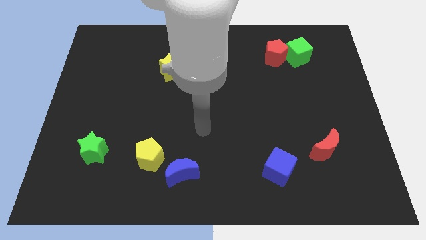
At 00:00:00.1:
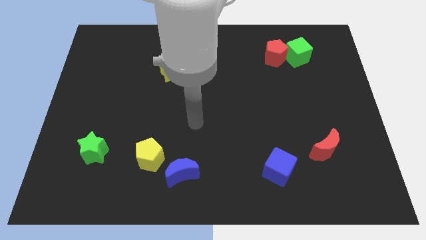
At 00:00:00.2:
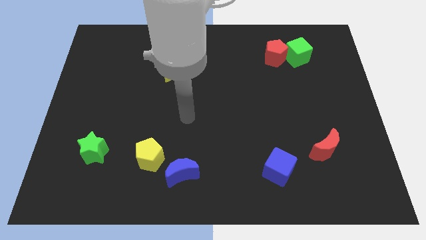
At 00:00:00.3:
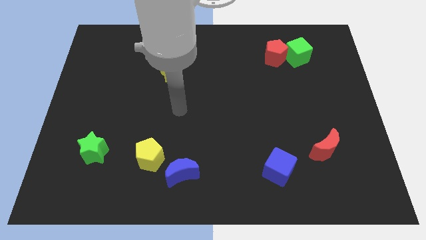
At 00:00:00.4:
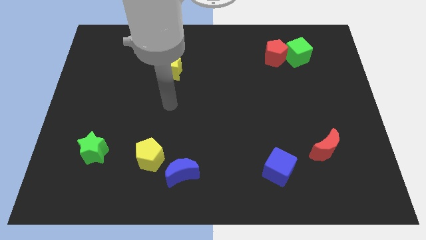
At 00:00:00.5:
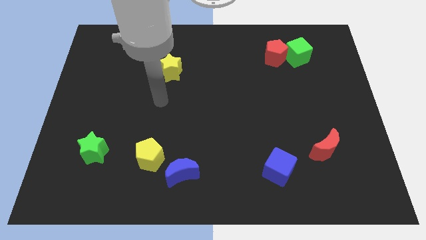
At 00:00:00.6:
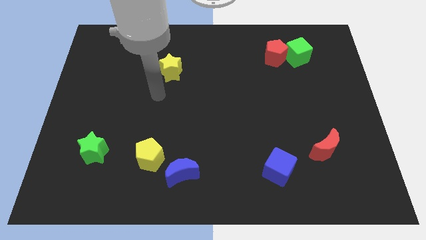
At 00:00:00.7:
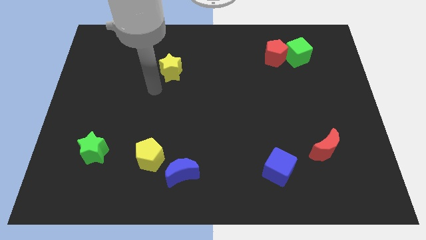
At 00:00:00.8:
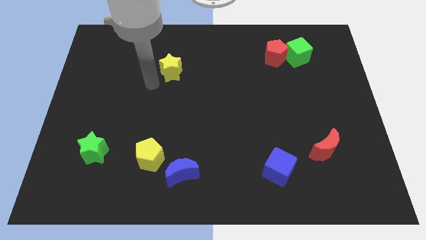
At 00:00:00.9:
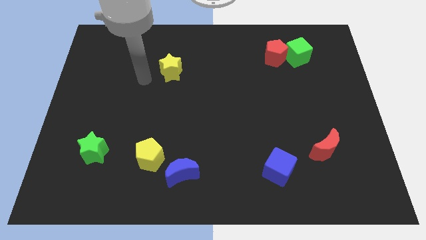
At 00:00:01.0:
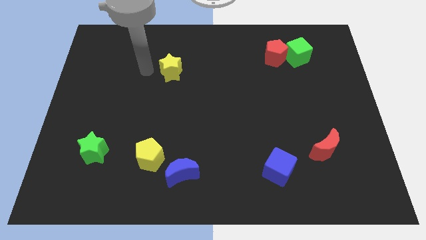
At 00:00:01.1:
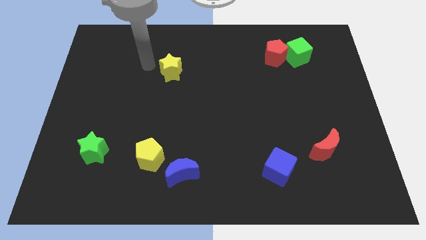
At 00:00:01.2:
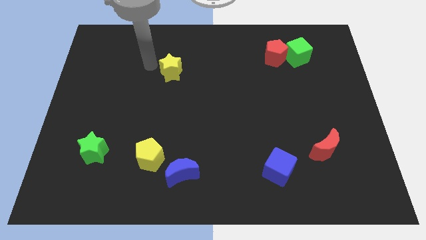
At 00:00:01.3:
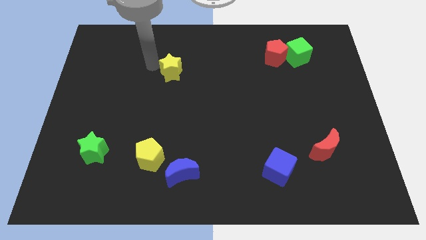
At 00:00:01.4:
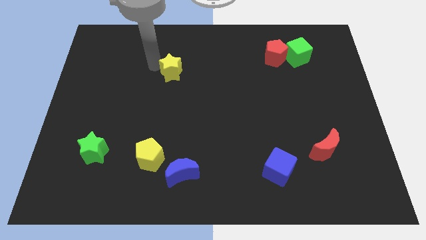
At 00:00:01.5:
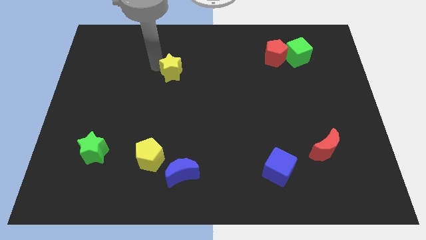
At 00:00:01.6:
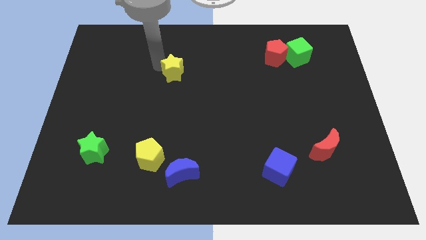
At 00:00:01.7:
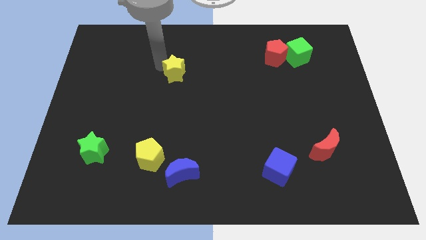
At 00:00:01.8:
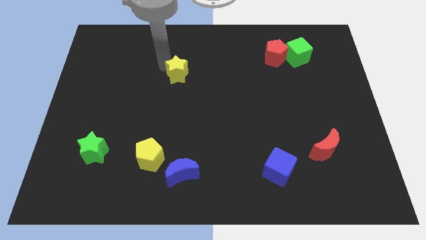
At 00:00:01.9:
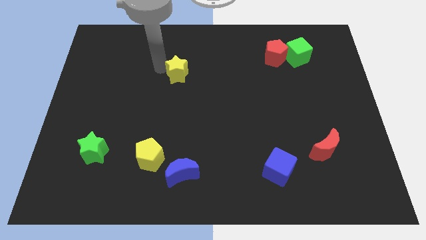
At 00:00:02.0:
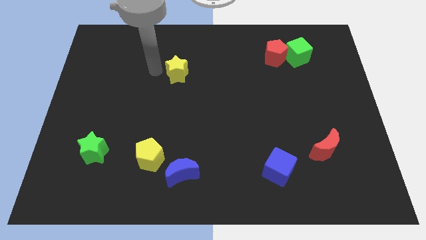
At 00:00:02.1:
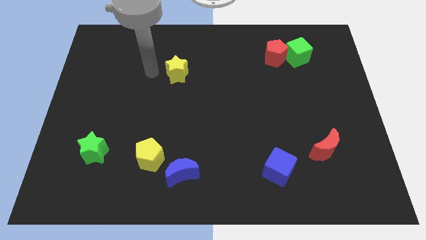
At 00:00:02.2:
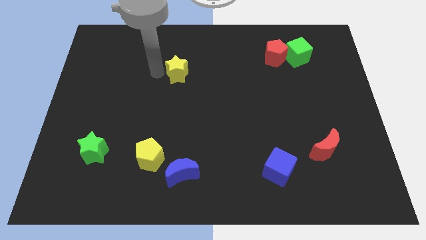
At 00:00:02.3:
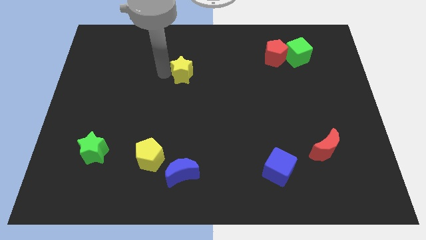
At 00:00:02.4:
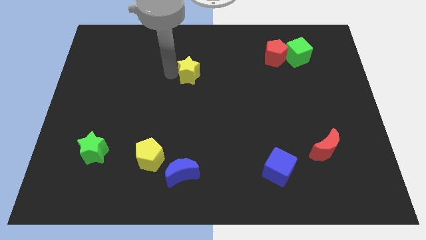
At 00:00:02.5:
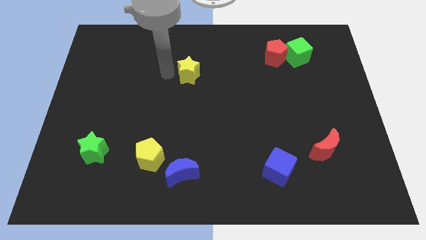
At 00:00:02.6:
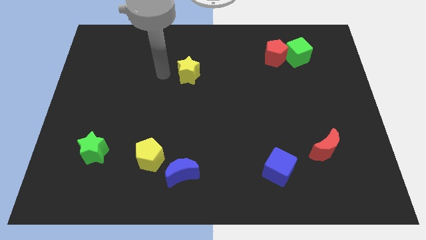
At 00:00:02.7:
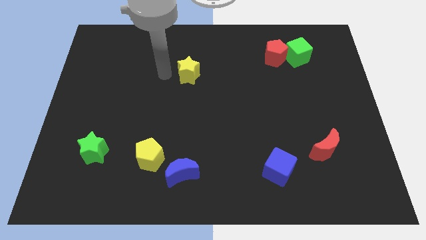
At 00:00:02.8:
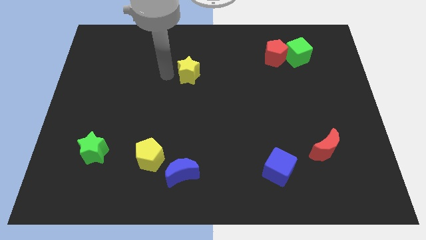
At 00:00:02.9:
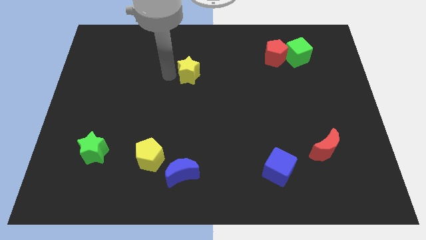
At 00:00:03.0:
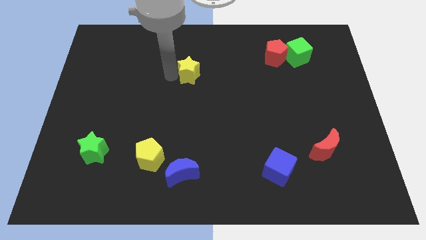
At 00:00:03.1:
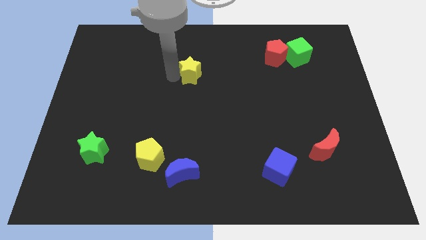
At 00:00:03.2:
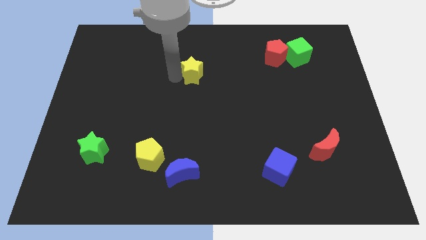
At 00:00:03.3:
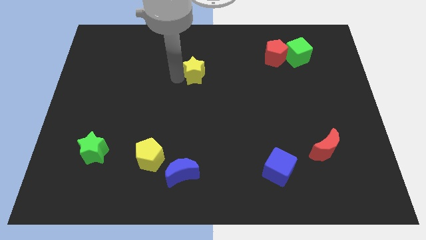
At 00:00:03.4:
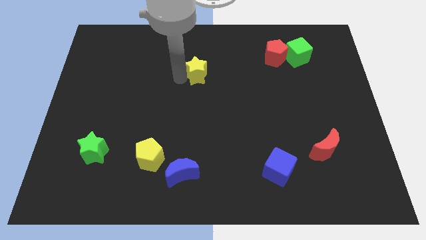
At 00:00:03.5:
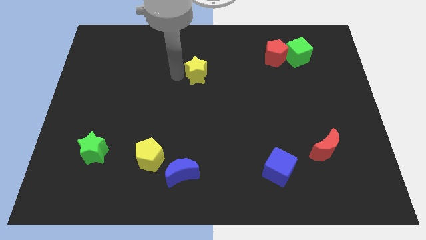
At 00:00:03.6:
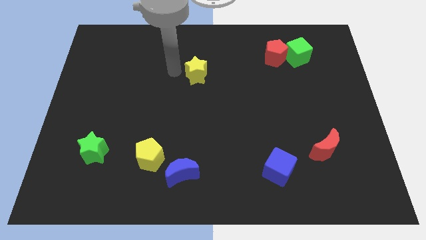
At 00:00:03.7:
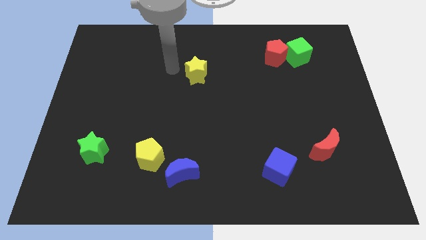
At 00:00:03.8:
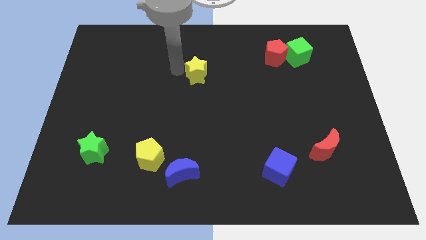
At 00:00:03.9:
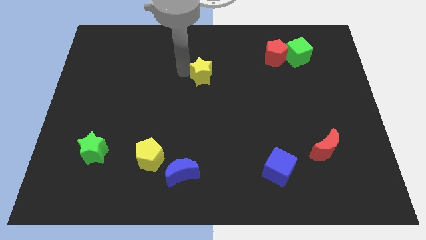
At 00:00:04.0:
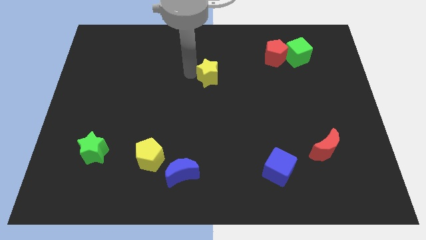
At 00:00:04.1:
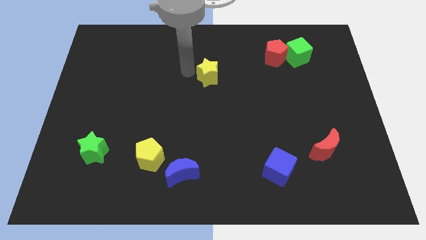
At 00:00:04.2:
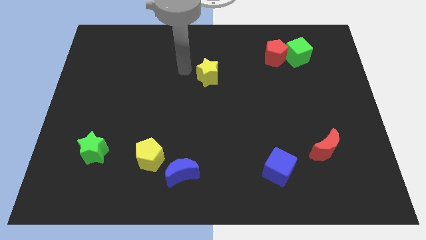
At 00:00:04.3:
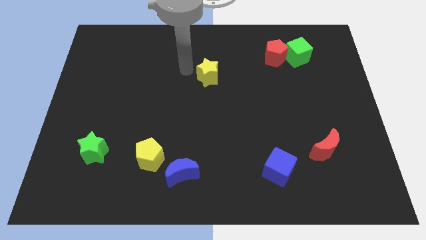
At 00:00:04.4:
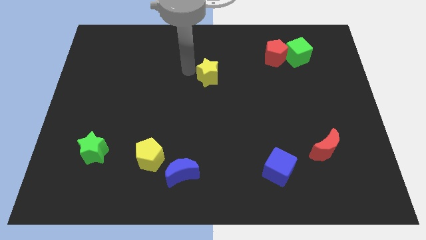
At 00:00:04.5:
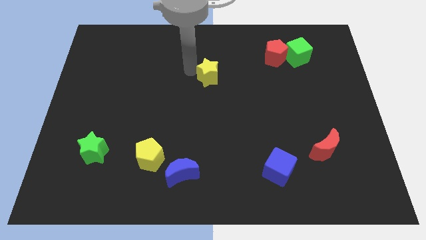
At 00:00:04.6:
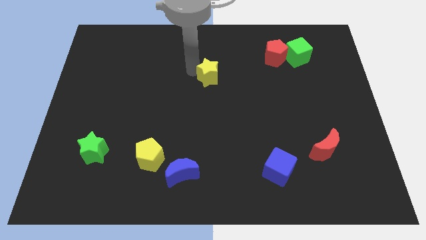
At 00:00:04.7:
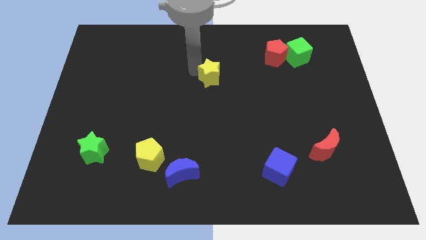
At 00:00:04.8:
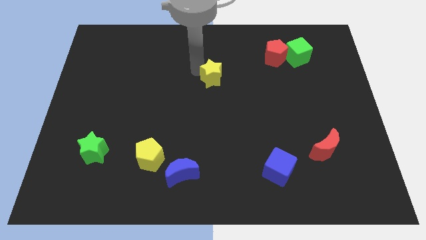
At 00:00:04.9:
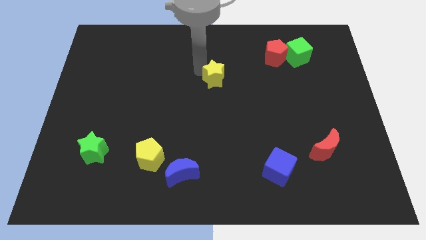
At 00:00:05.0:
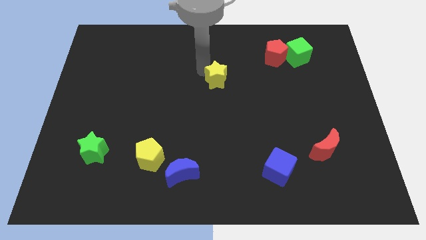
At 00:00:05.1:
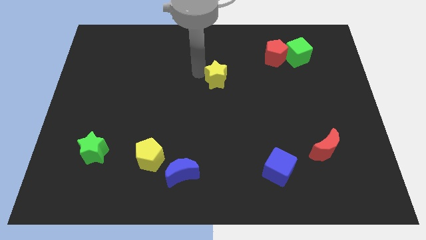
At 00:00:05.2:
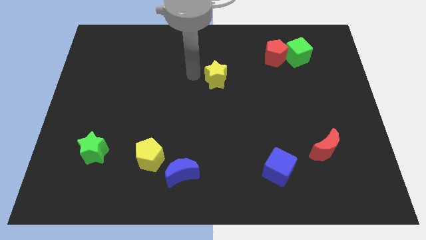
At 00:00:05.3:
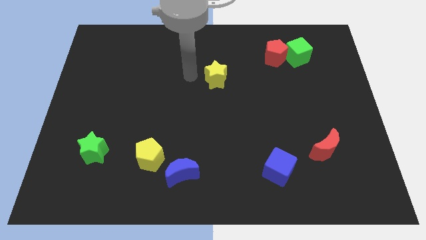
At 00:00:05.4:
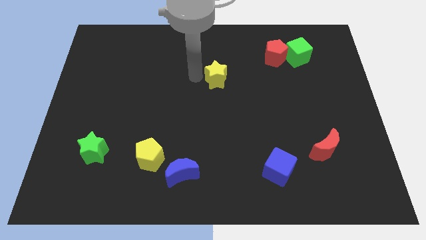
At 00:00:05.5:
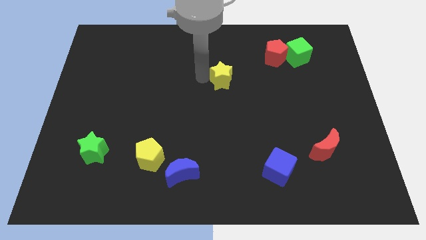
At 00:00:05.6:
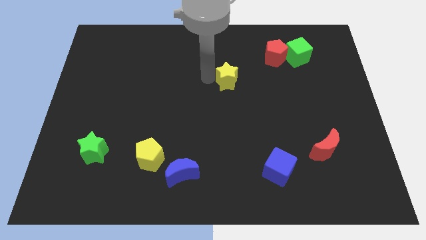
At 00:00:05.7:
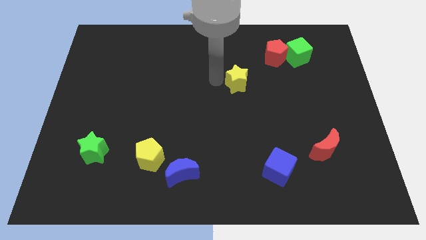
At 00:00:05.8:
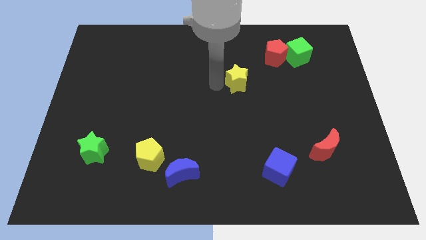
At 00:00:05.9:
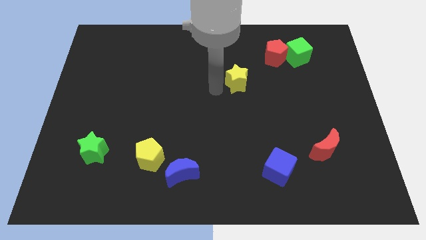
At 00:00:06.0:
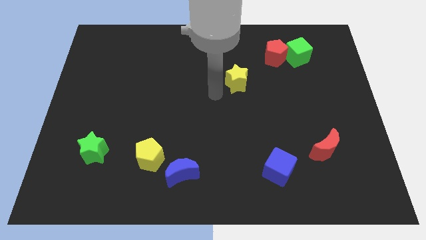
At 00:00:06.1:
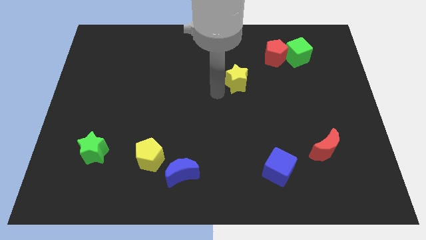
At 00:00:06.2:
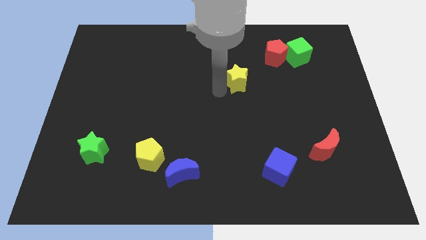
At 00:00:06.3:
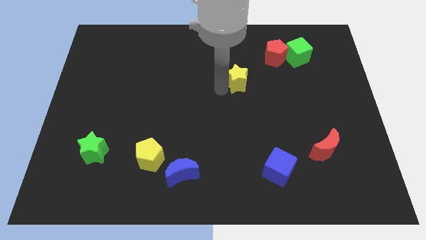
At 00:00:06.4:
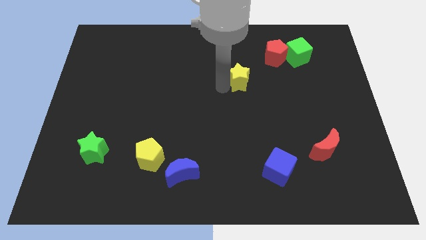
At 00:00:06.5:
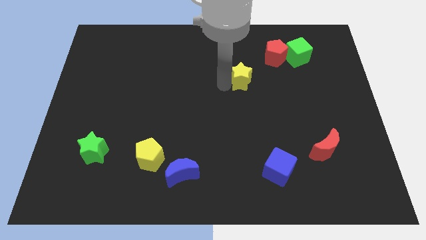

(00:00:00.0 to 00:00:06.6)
move the yellow star to the bottom left of the red pentagon
